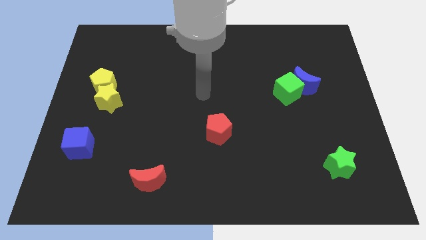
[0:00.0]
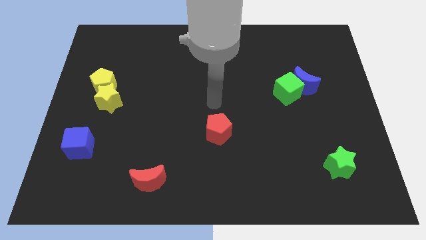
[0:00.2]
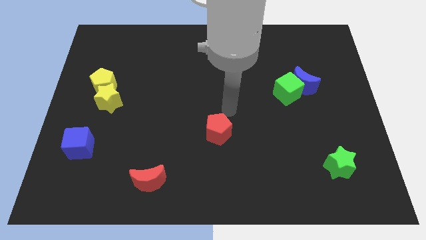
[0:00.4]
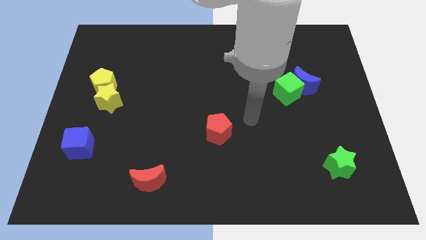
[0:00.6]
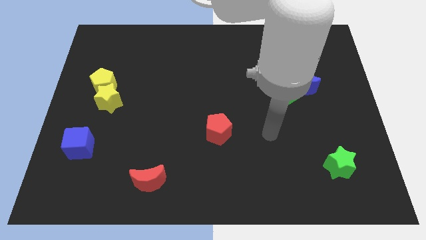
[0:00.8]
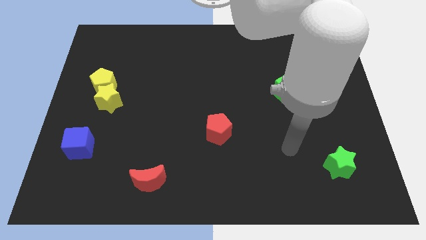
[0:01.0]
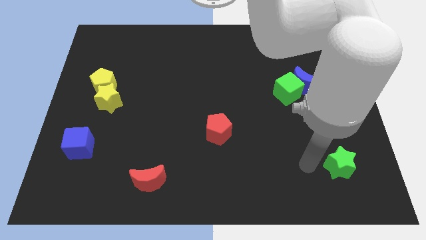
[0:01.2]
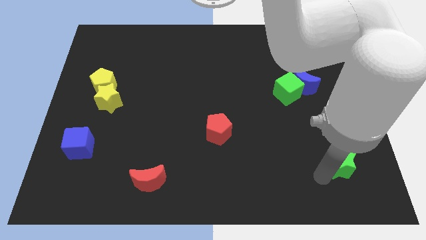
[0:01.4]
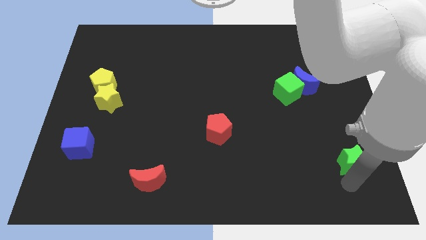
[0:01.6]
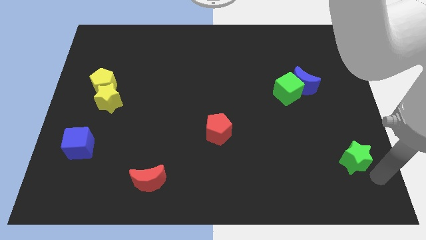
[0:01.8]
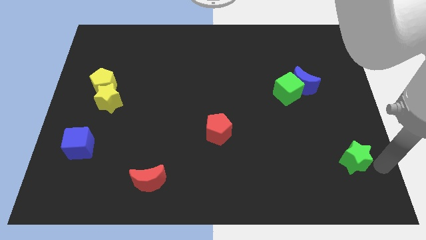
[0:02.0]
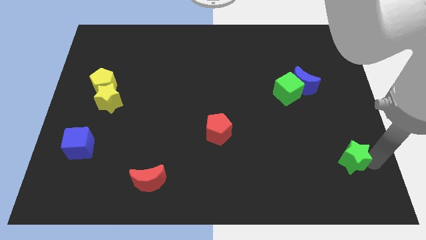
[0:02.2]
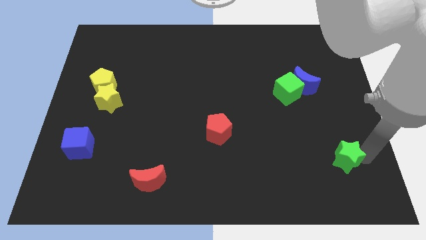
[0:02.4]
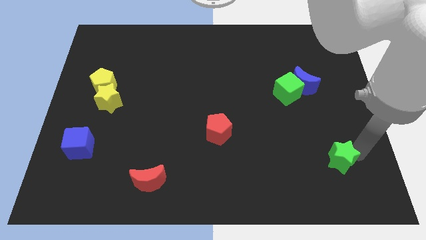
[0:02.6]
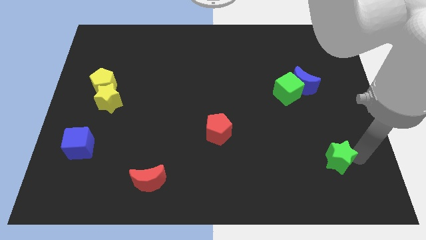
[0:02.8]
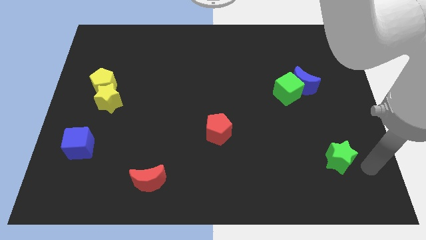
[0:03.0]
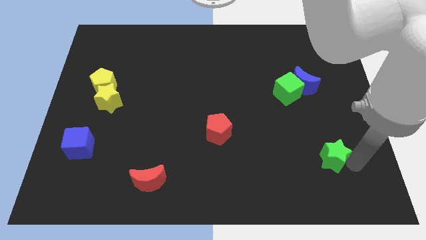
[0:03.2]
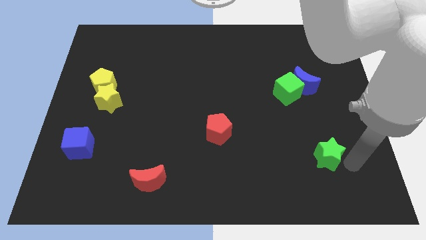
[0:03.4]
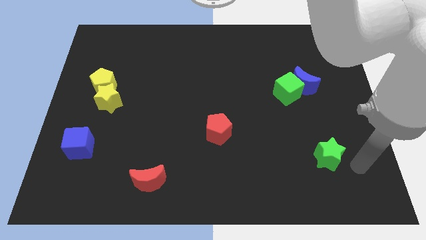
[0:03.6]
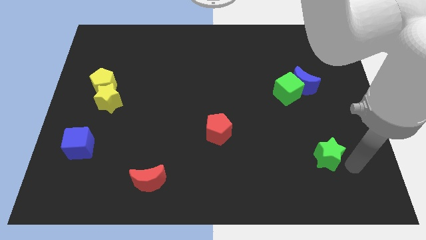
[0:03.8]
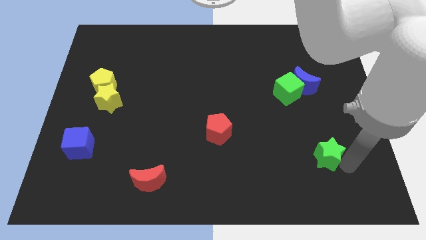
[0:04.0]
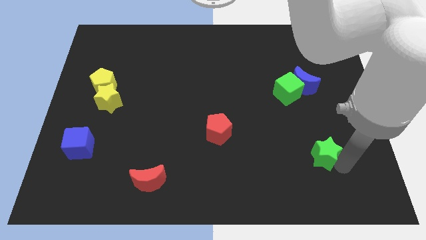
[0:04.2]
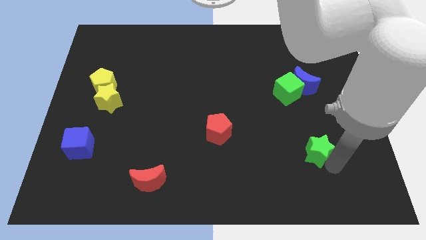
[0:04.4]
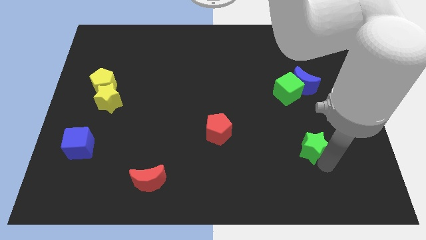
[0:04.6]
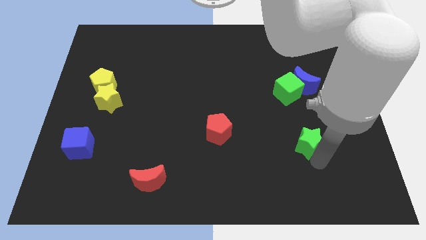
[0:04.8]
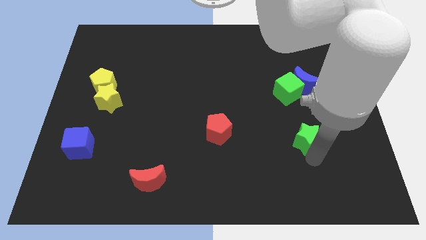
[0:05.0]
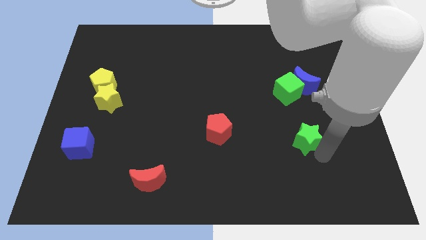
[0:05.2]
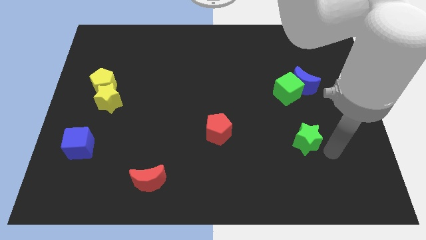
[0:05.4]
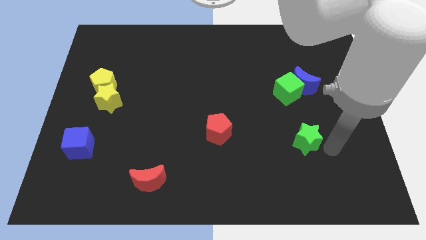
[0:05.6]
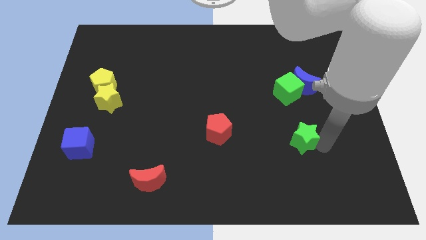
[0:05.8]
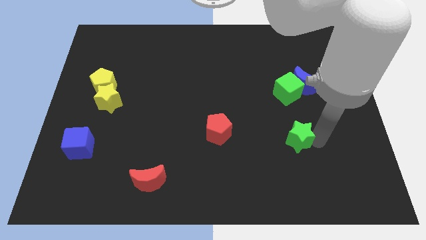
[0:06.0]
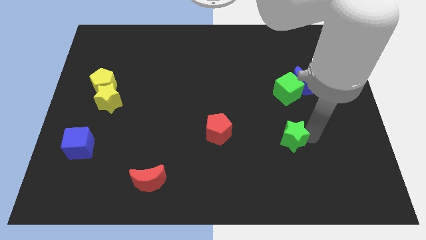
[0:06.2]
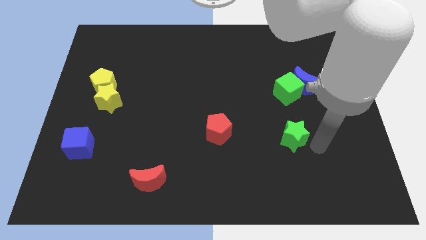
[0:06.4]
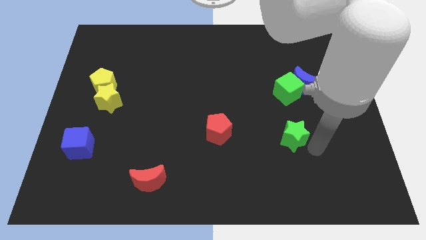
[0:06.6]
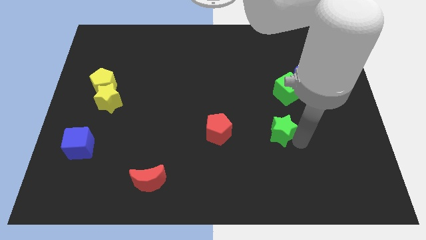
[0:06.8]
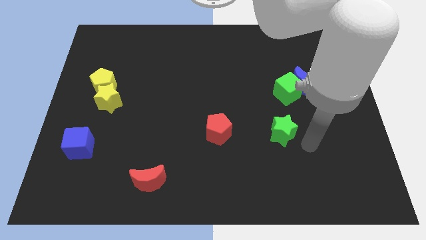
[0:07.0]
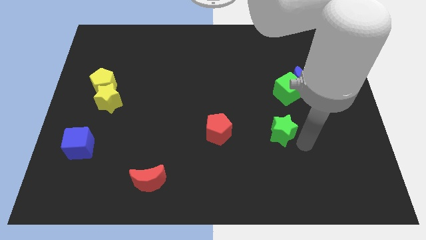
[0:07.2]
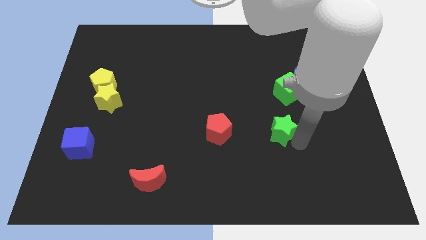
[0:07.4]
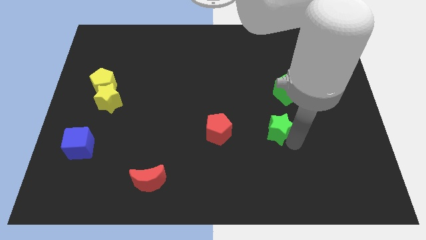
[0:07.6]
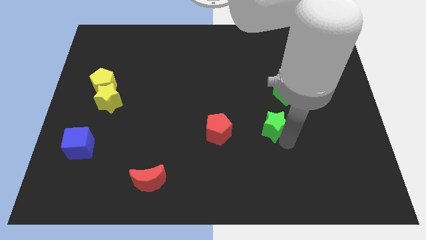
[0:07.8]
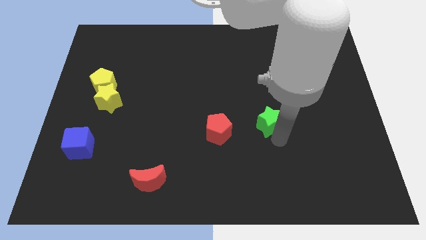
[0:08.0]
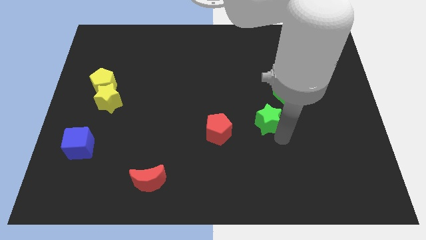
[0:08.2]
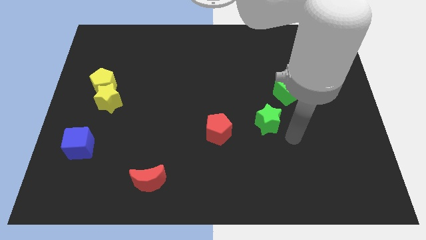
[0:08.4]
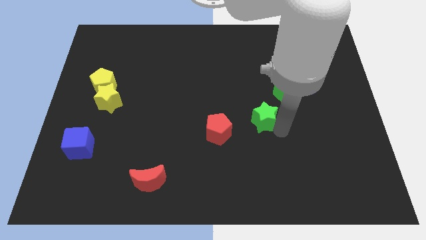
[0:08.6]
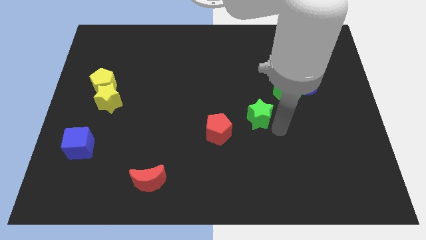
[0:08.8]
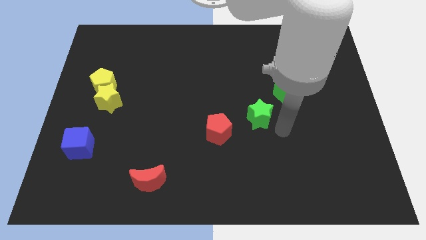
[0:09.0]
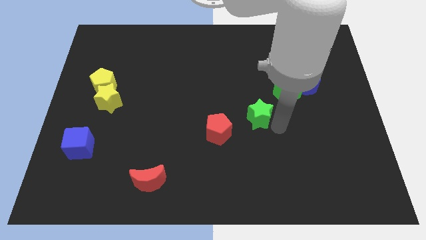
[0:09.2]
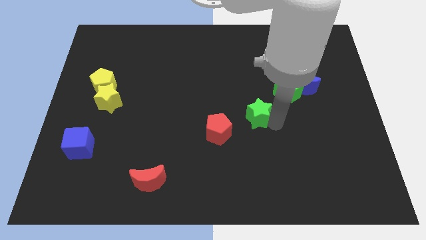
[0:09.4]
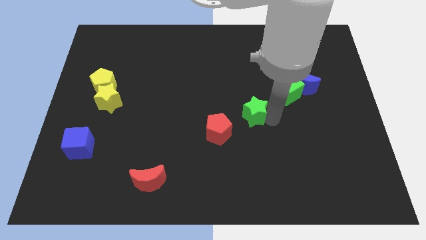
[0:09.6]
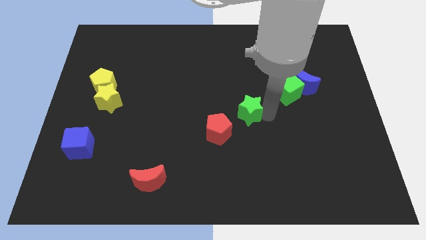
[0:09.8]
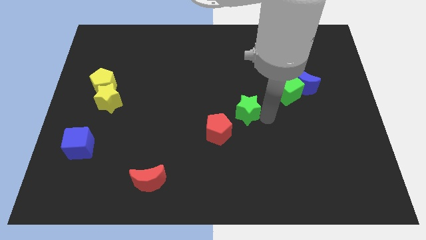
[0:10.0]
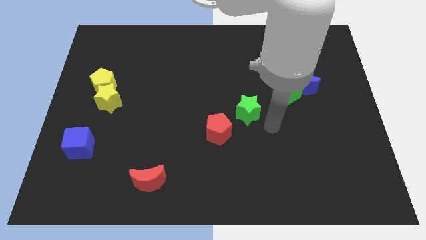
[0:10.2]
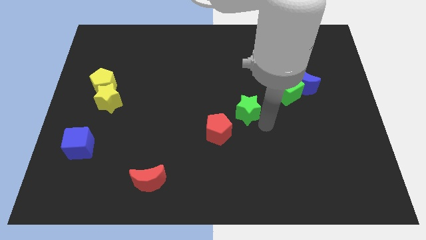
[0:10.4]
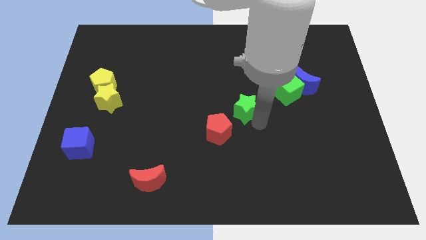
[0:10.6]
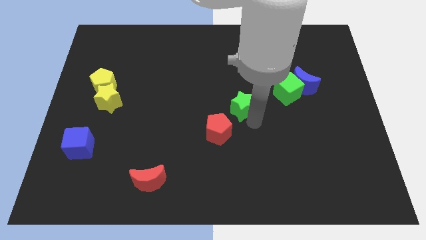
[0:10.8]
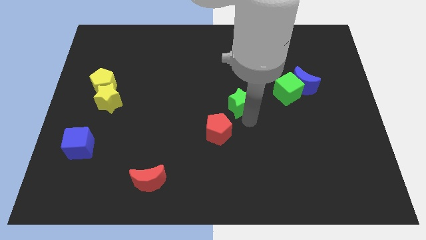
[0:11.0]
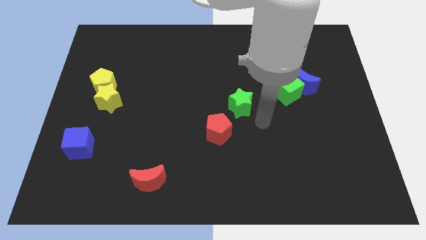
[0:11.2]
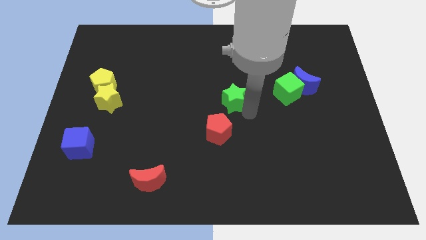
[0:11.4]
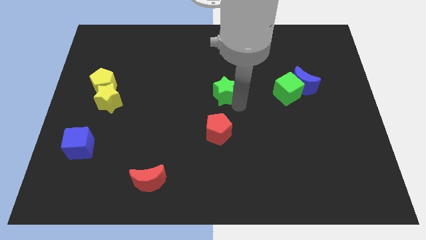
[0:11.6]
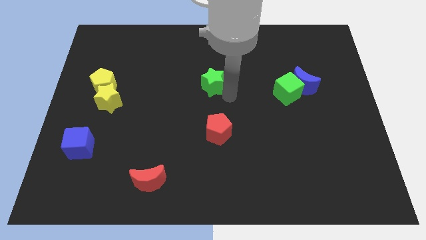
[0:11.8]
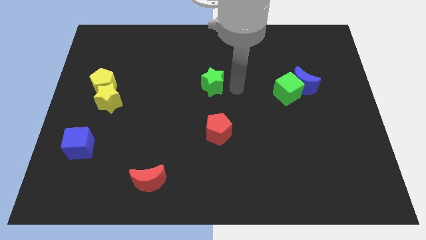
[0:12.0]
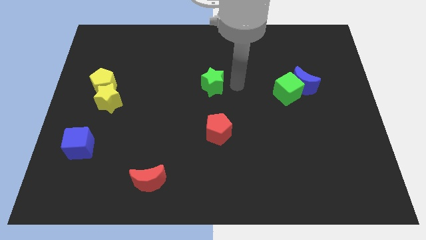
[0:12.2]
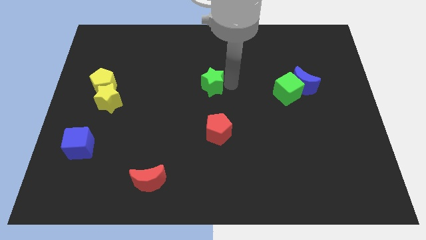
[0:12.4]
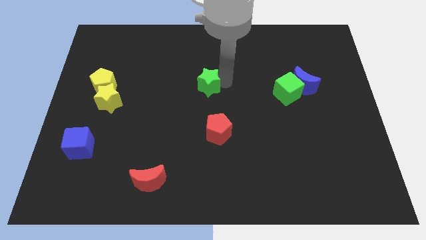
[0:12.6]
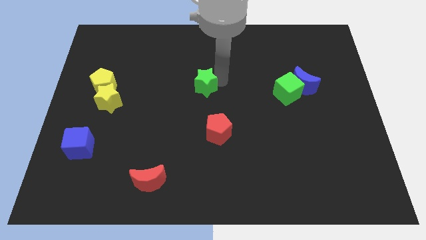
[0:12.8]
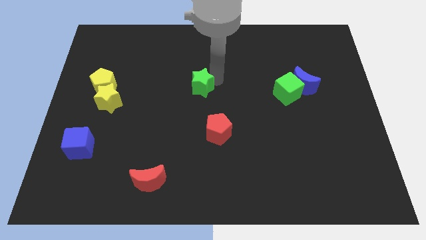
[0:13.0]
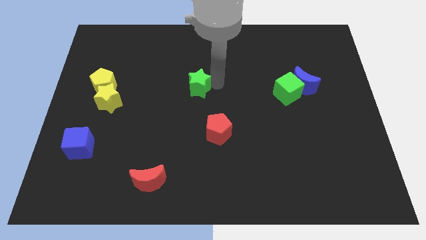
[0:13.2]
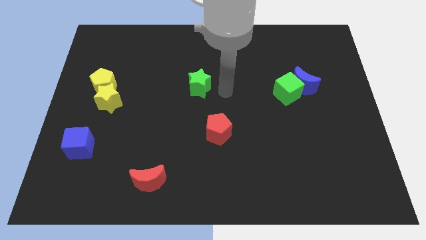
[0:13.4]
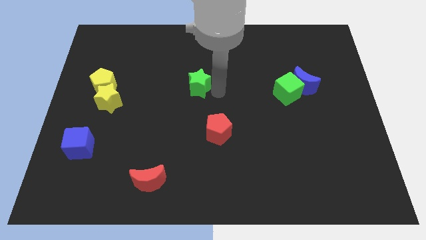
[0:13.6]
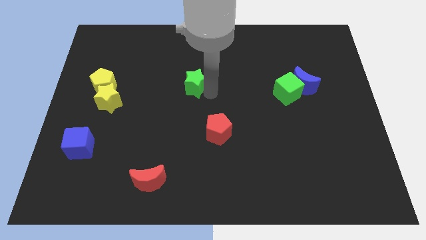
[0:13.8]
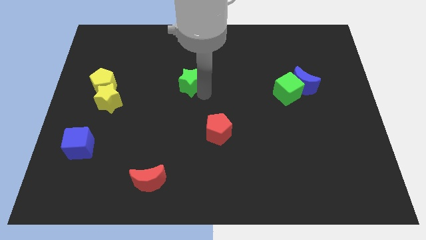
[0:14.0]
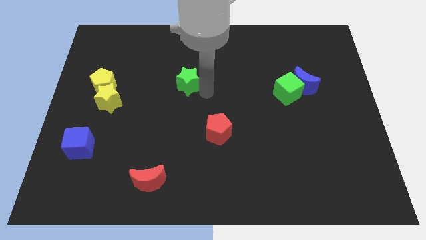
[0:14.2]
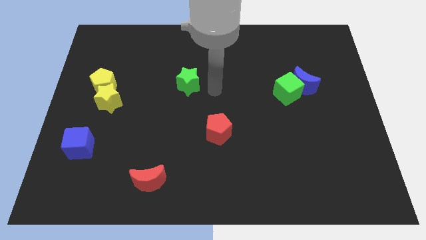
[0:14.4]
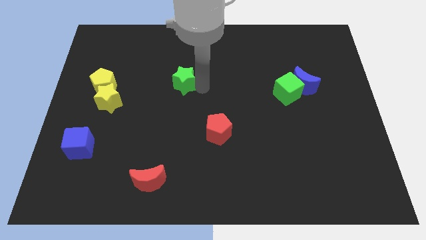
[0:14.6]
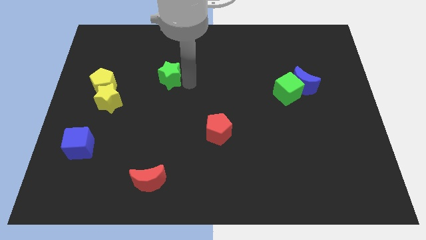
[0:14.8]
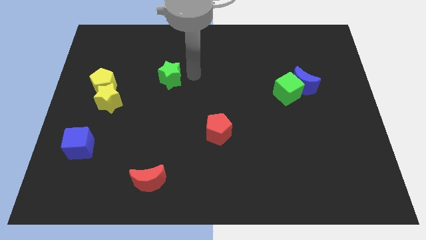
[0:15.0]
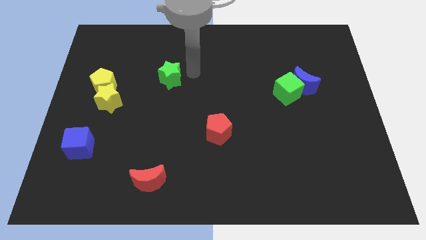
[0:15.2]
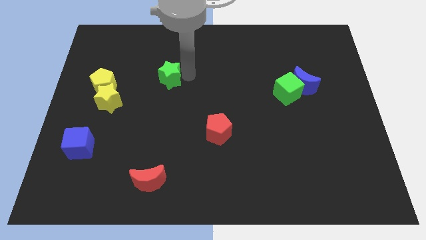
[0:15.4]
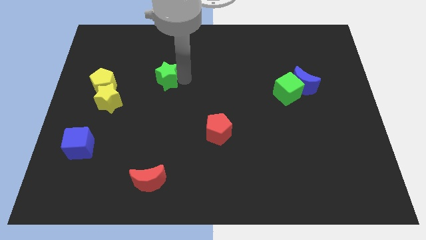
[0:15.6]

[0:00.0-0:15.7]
push the green star to the right of the yellow pentagon
